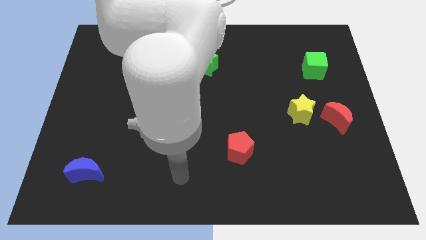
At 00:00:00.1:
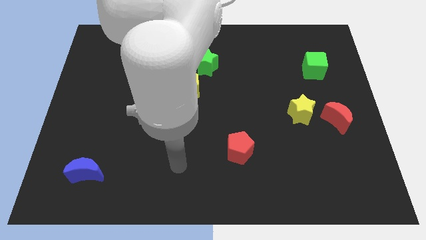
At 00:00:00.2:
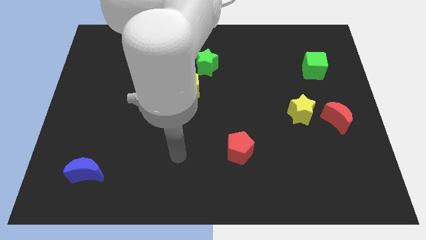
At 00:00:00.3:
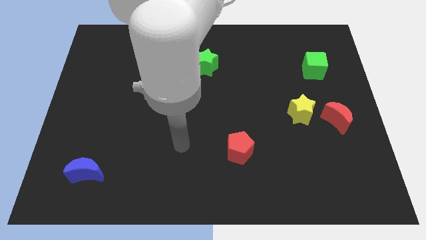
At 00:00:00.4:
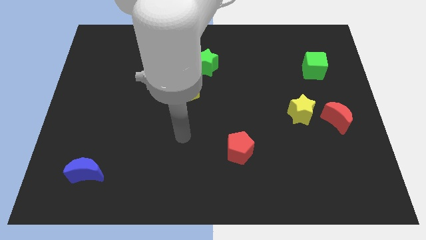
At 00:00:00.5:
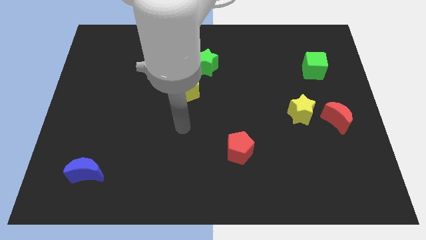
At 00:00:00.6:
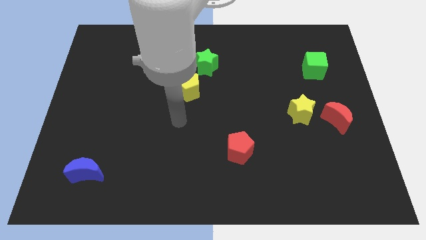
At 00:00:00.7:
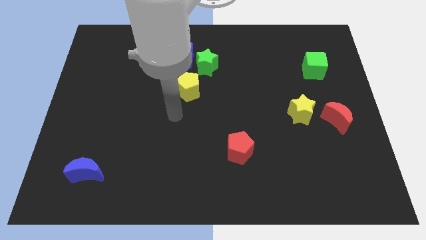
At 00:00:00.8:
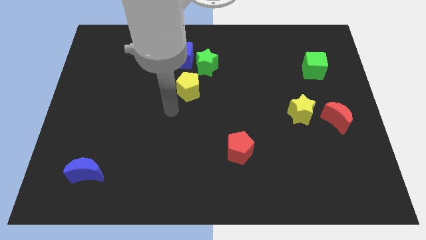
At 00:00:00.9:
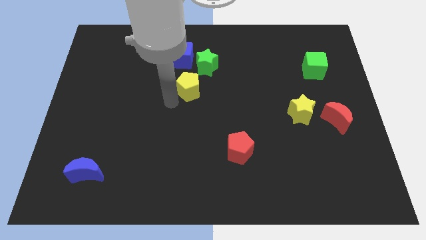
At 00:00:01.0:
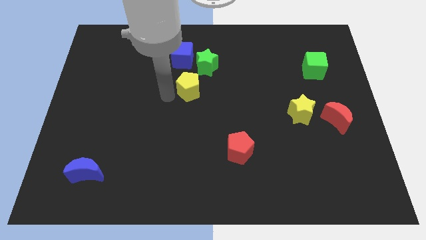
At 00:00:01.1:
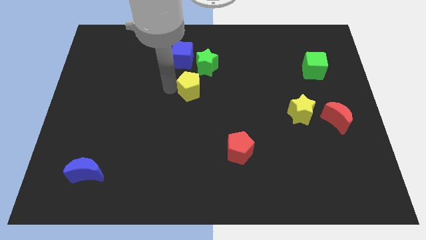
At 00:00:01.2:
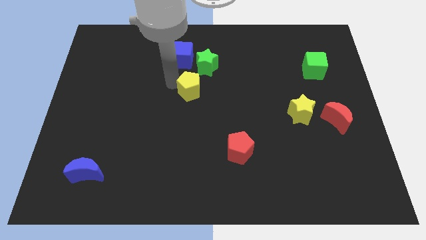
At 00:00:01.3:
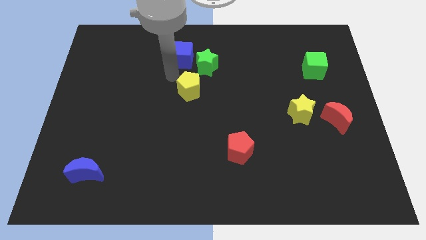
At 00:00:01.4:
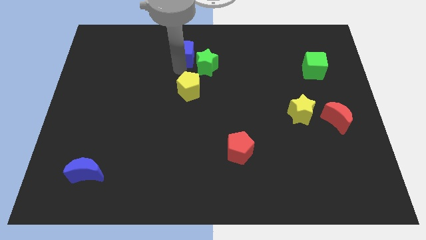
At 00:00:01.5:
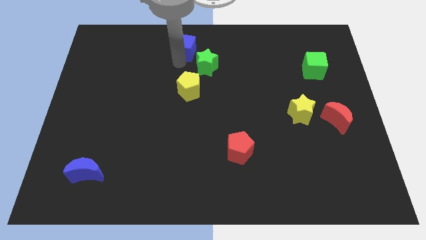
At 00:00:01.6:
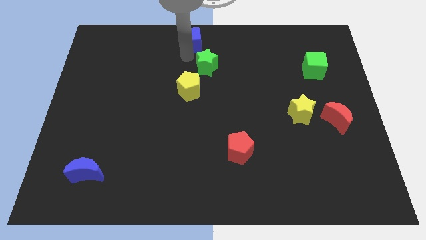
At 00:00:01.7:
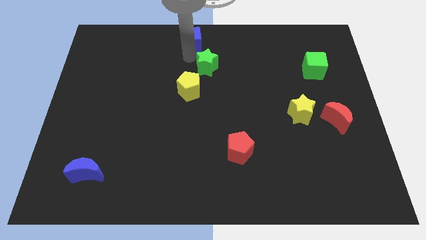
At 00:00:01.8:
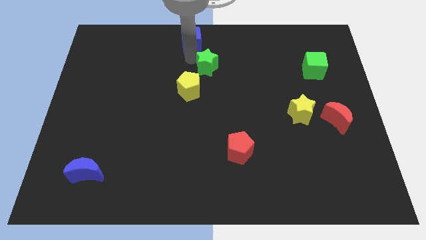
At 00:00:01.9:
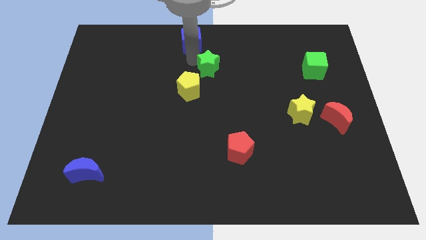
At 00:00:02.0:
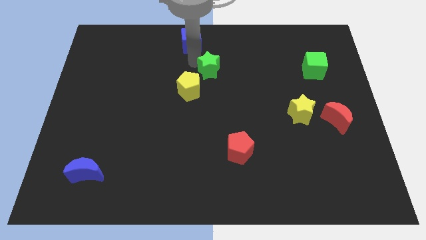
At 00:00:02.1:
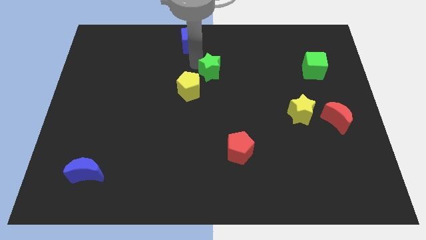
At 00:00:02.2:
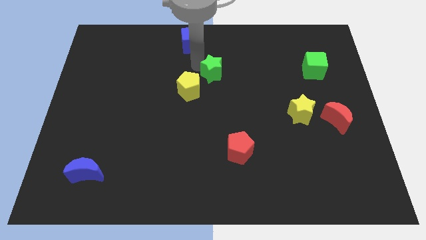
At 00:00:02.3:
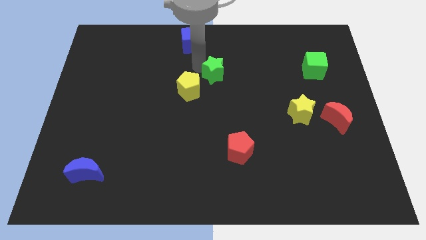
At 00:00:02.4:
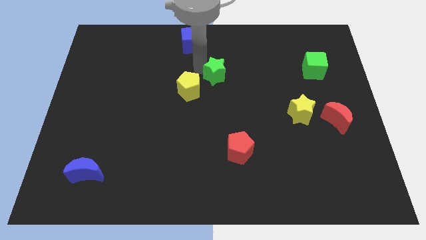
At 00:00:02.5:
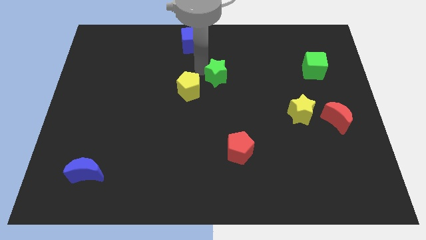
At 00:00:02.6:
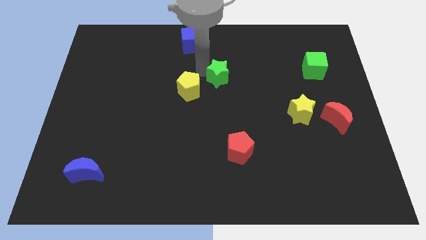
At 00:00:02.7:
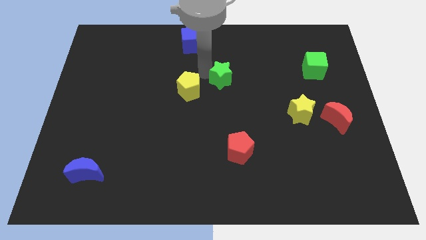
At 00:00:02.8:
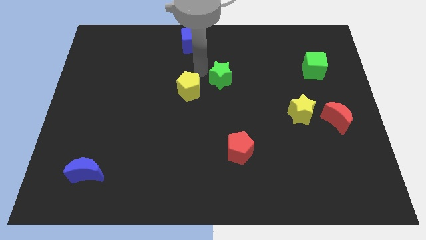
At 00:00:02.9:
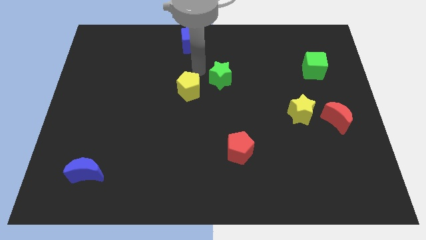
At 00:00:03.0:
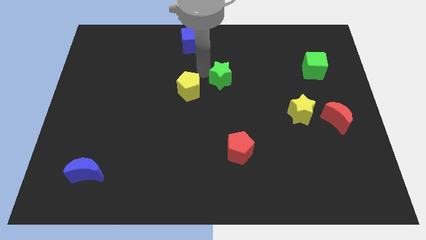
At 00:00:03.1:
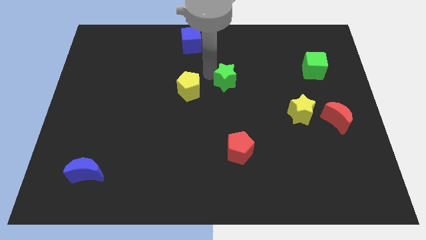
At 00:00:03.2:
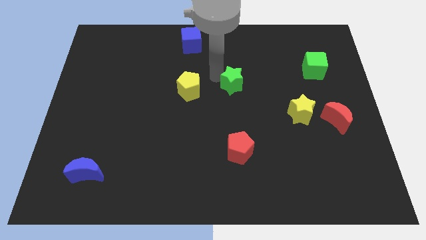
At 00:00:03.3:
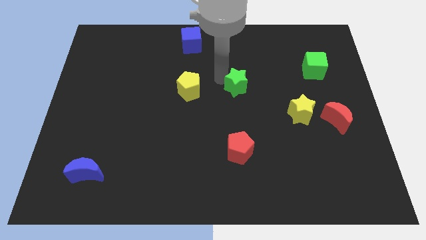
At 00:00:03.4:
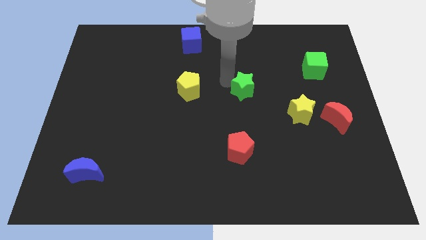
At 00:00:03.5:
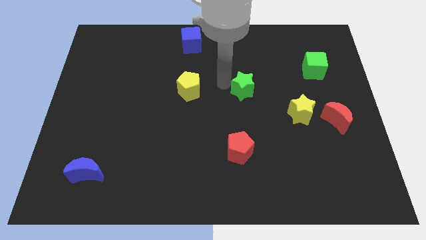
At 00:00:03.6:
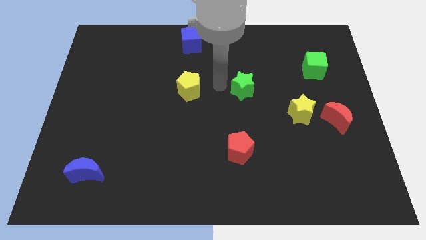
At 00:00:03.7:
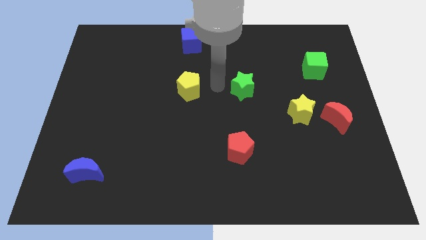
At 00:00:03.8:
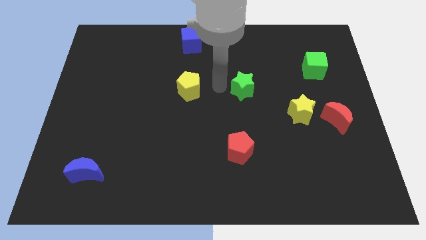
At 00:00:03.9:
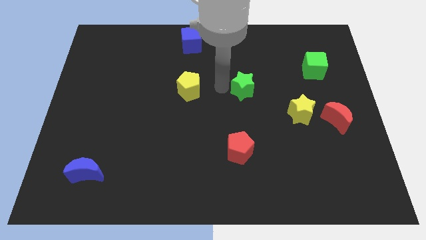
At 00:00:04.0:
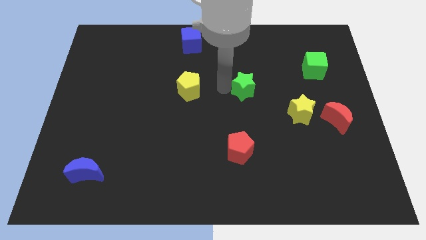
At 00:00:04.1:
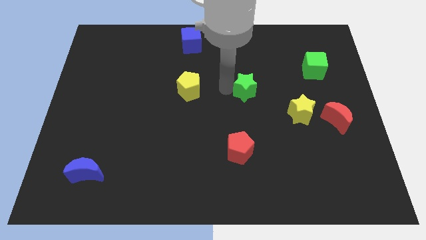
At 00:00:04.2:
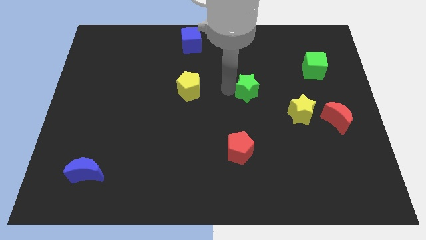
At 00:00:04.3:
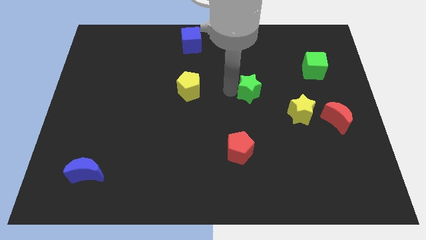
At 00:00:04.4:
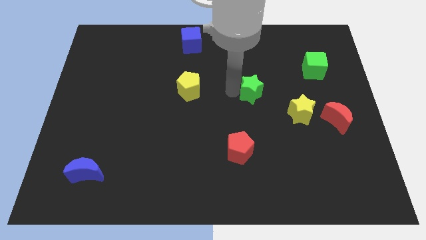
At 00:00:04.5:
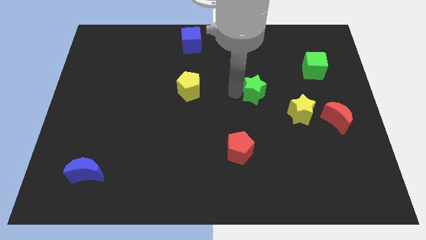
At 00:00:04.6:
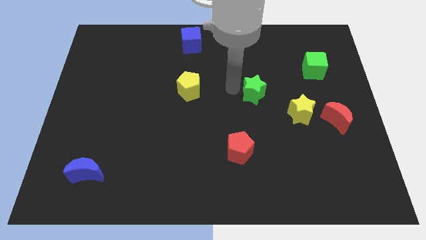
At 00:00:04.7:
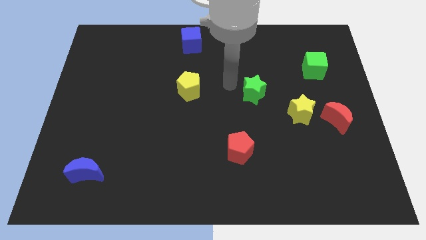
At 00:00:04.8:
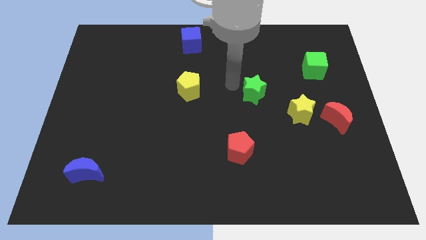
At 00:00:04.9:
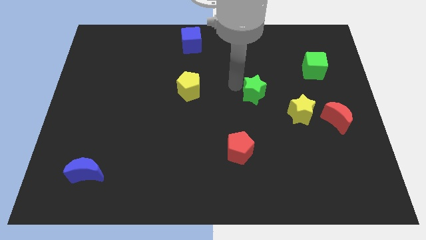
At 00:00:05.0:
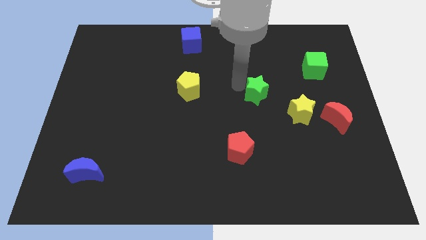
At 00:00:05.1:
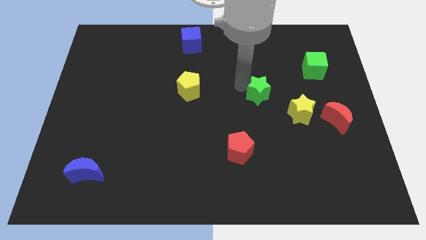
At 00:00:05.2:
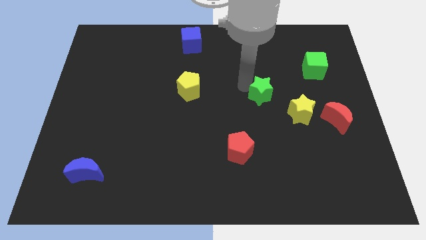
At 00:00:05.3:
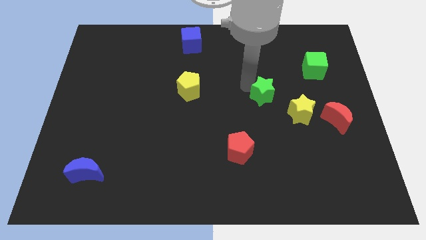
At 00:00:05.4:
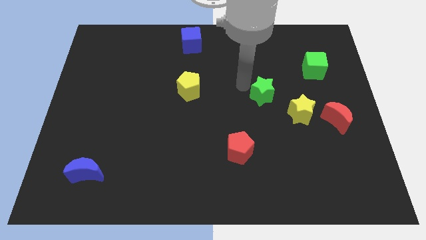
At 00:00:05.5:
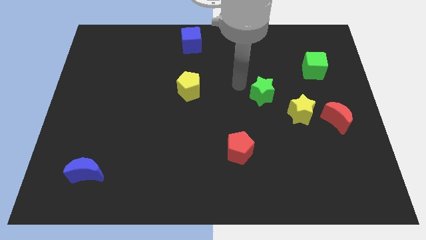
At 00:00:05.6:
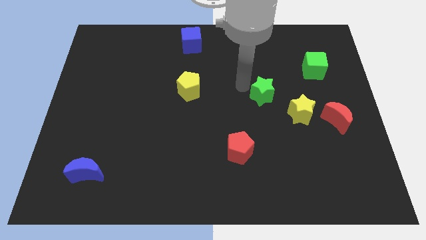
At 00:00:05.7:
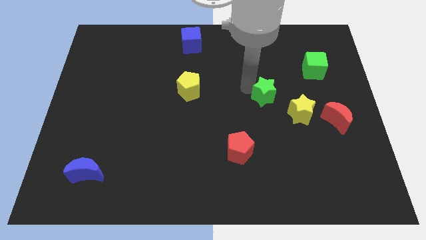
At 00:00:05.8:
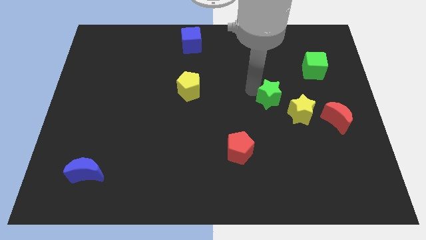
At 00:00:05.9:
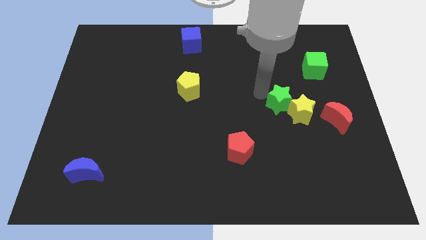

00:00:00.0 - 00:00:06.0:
put the green star towards the yellow star
